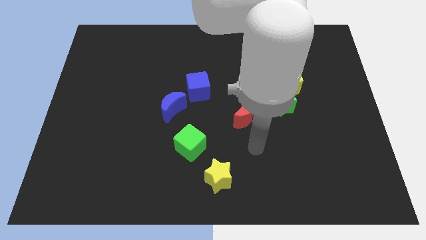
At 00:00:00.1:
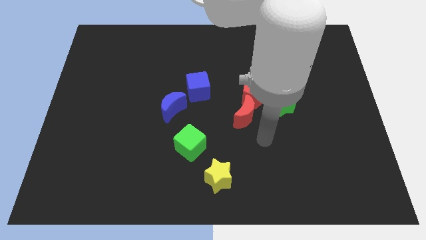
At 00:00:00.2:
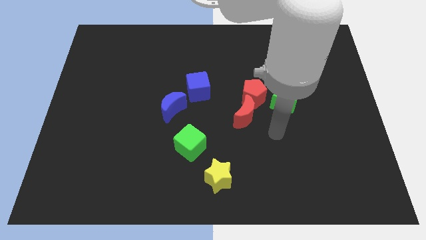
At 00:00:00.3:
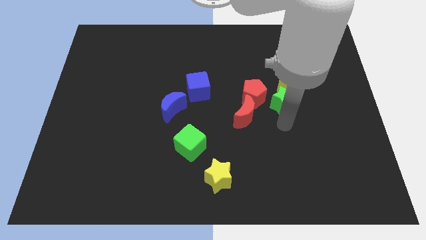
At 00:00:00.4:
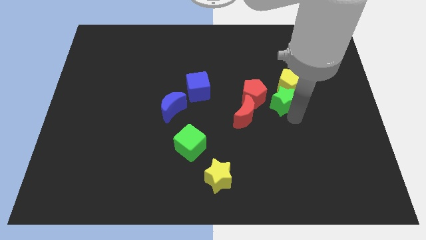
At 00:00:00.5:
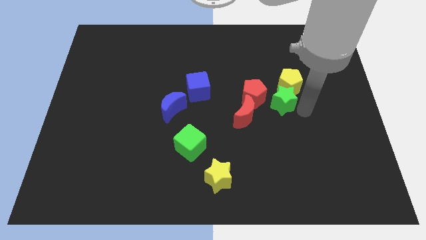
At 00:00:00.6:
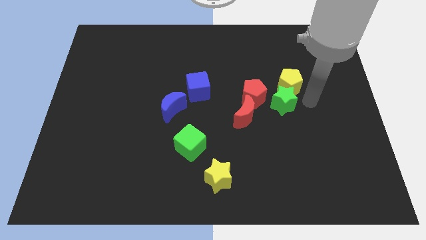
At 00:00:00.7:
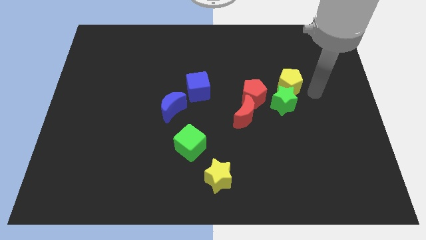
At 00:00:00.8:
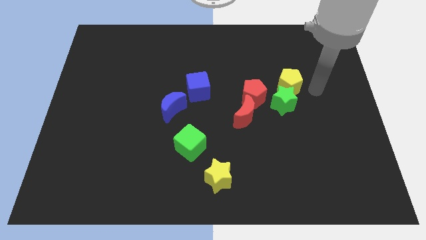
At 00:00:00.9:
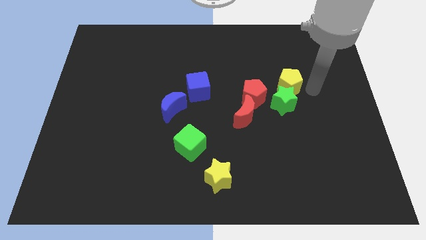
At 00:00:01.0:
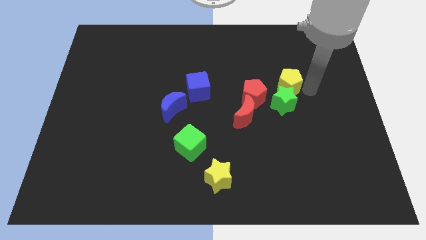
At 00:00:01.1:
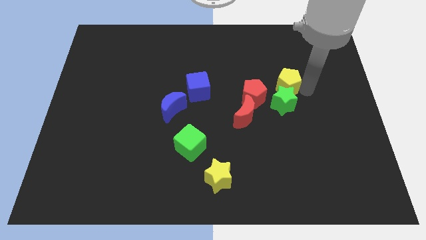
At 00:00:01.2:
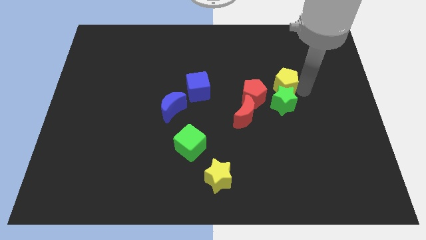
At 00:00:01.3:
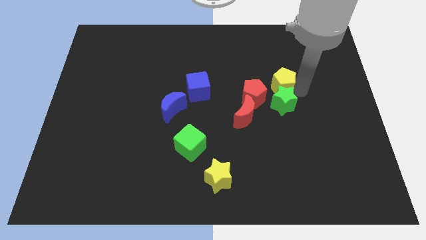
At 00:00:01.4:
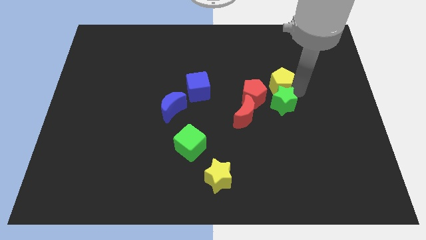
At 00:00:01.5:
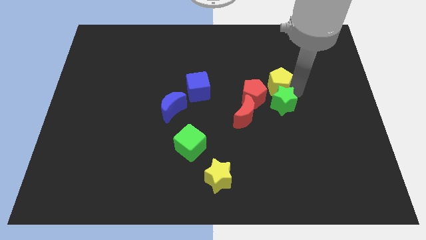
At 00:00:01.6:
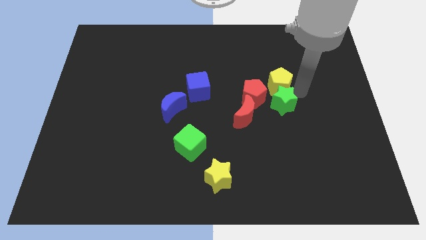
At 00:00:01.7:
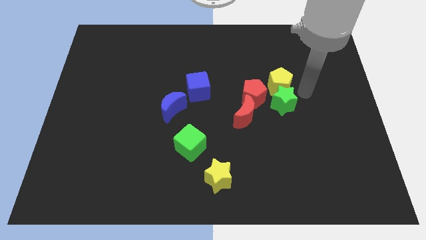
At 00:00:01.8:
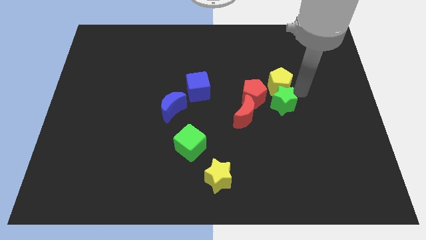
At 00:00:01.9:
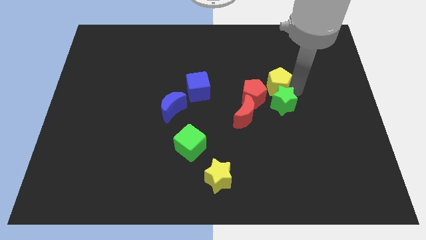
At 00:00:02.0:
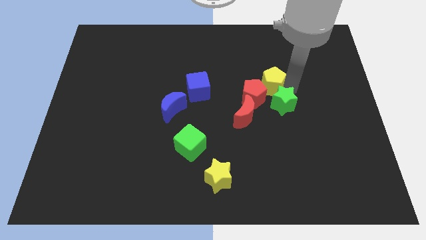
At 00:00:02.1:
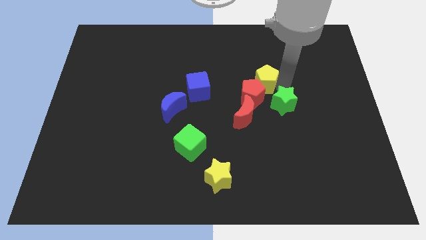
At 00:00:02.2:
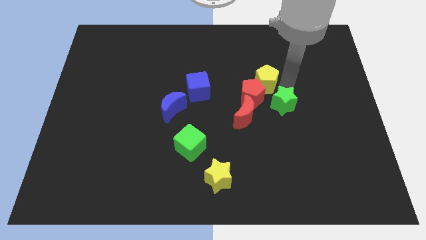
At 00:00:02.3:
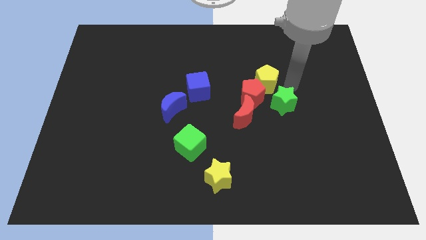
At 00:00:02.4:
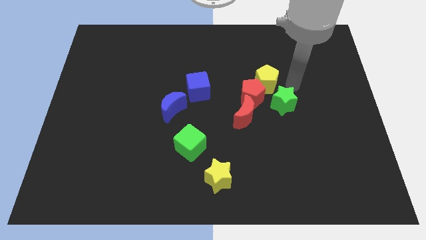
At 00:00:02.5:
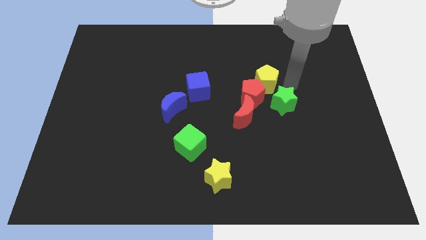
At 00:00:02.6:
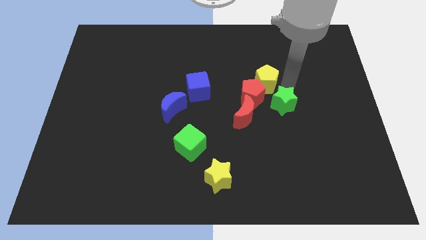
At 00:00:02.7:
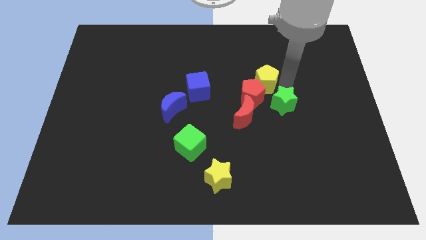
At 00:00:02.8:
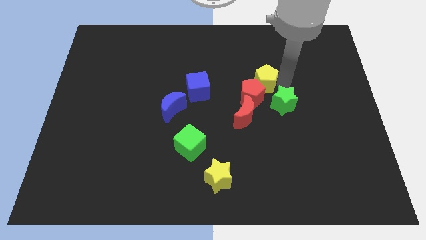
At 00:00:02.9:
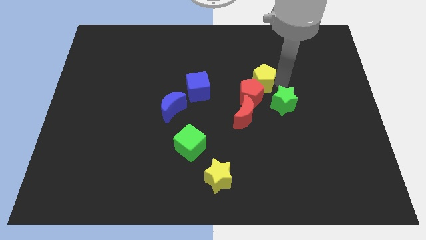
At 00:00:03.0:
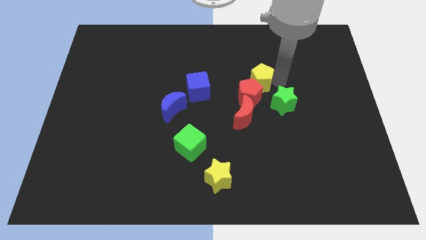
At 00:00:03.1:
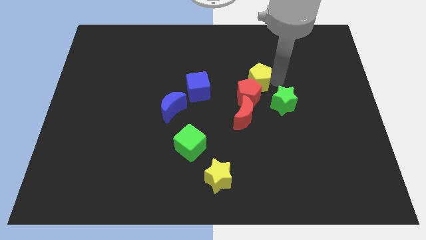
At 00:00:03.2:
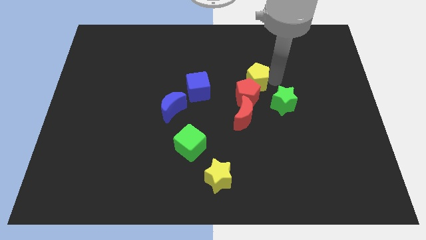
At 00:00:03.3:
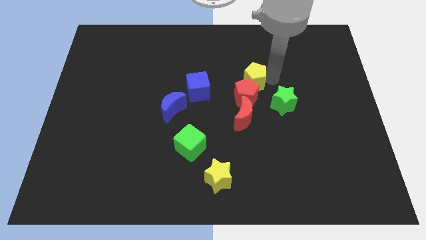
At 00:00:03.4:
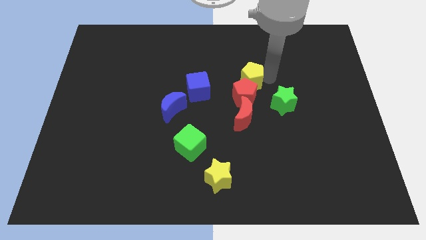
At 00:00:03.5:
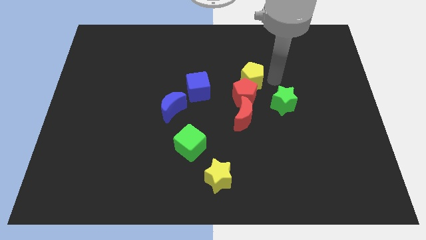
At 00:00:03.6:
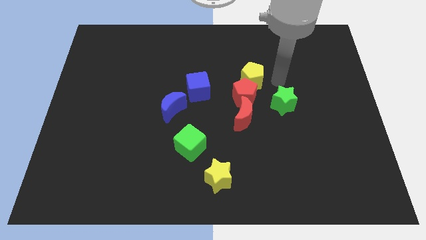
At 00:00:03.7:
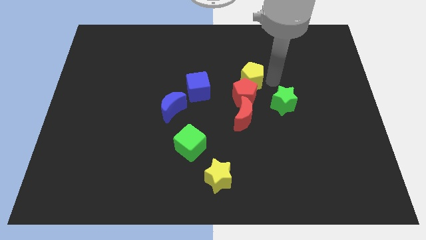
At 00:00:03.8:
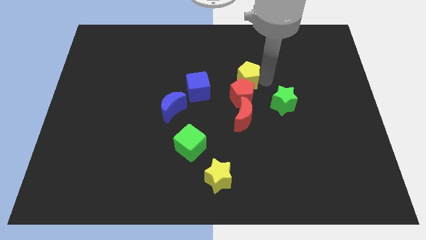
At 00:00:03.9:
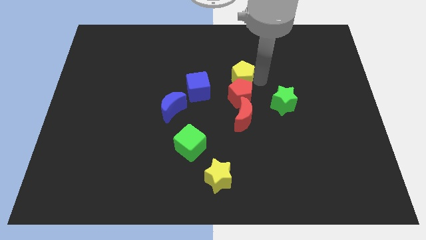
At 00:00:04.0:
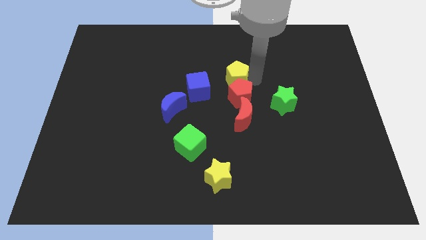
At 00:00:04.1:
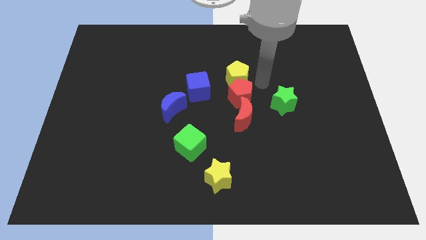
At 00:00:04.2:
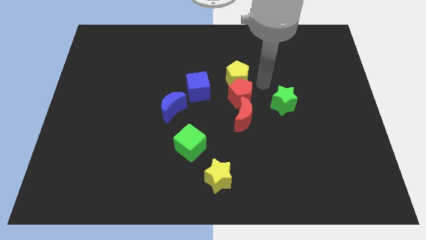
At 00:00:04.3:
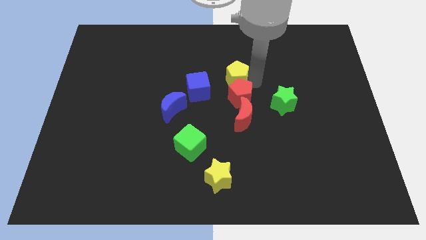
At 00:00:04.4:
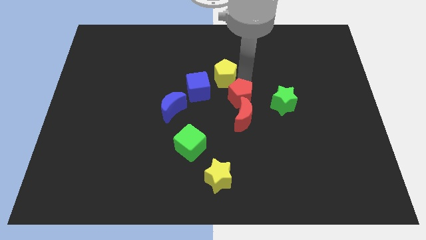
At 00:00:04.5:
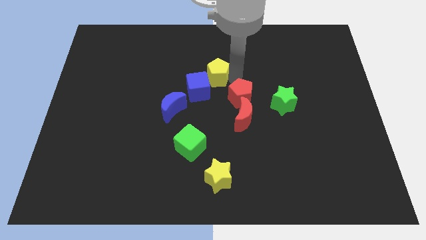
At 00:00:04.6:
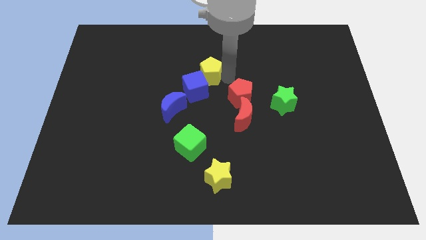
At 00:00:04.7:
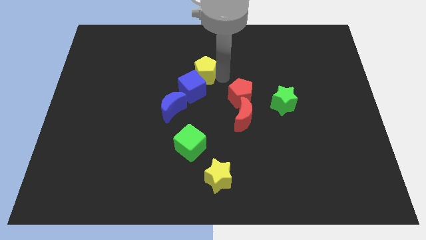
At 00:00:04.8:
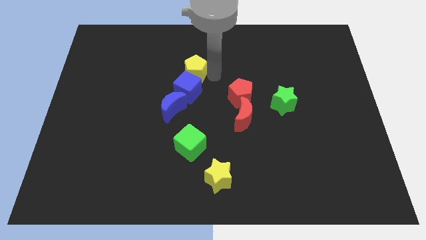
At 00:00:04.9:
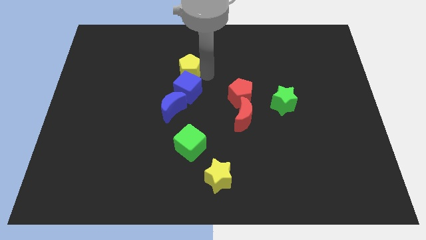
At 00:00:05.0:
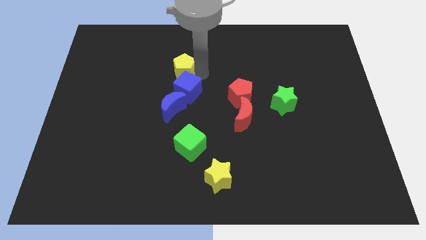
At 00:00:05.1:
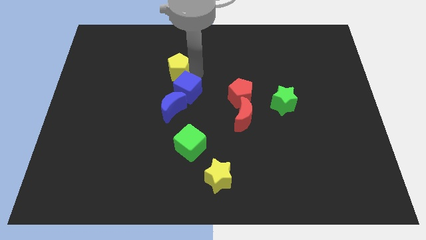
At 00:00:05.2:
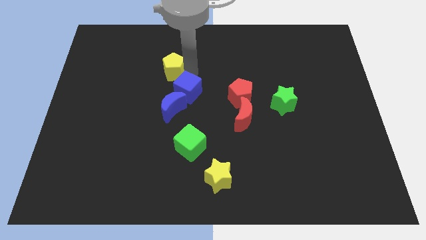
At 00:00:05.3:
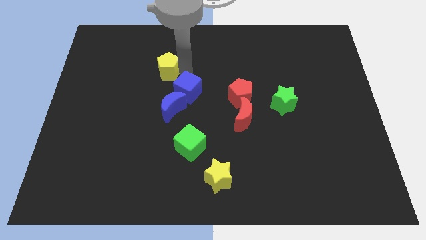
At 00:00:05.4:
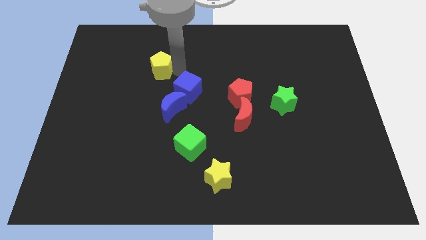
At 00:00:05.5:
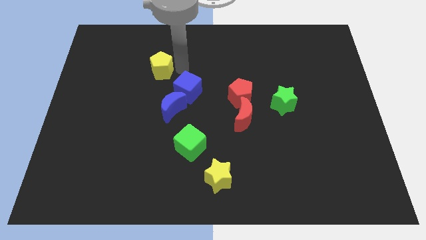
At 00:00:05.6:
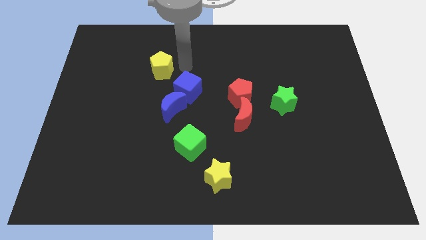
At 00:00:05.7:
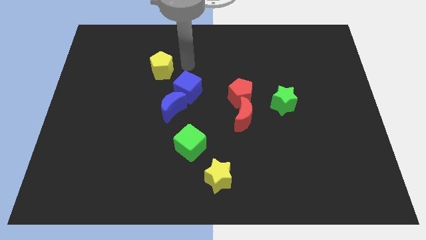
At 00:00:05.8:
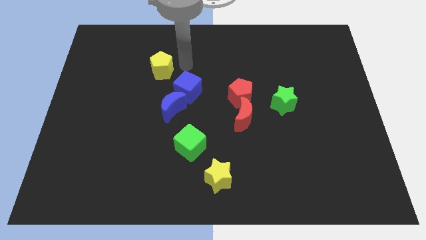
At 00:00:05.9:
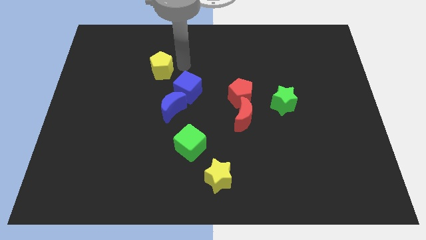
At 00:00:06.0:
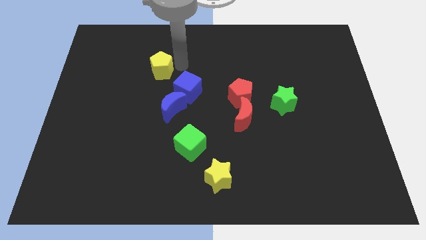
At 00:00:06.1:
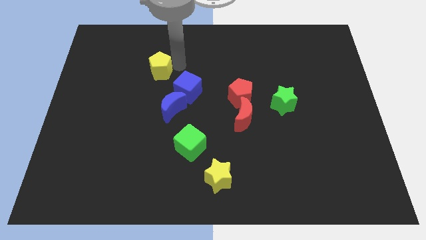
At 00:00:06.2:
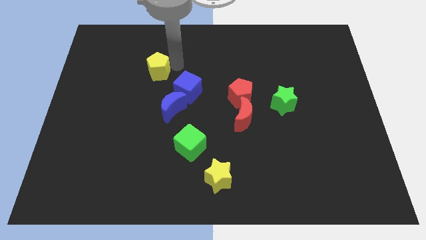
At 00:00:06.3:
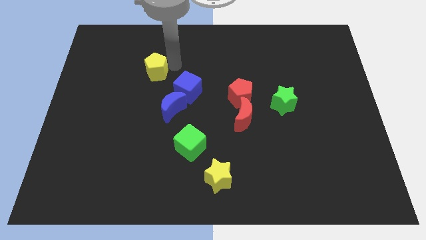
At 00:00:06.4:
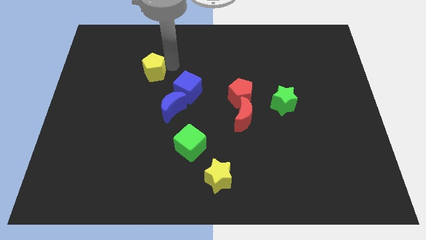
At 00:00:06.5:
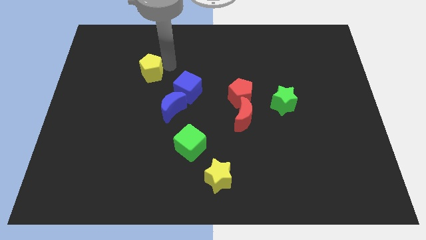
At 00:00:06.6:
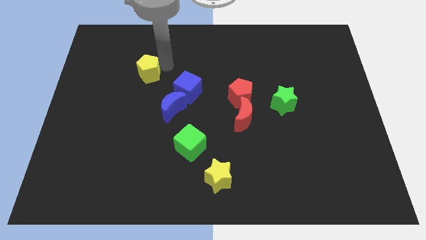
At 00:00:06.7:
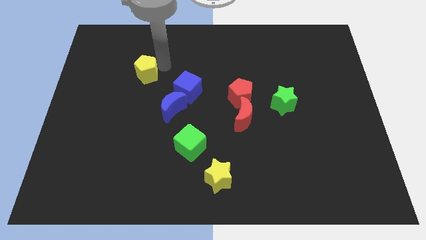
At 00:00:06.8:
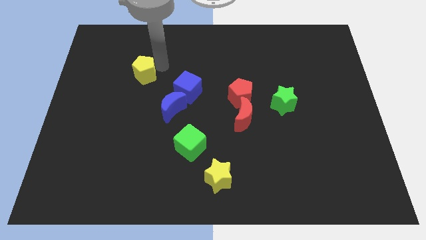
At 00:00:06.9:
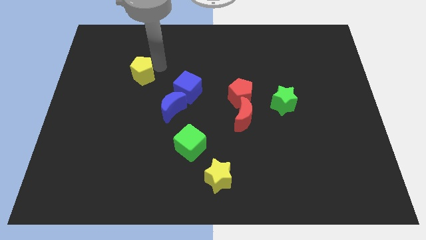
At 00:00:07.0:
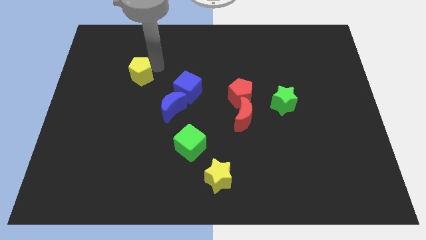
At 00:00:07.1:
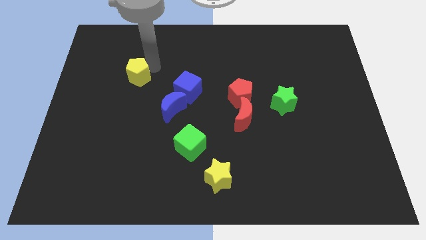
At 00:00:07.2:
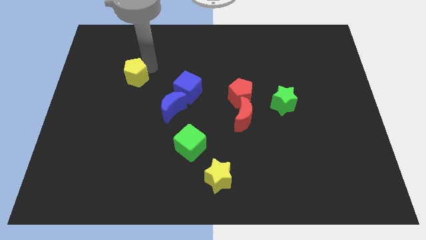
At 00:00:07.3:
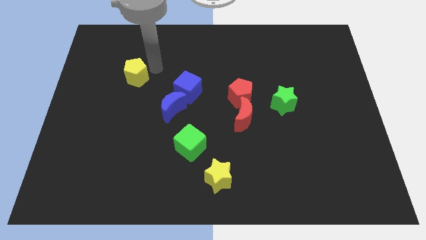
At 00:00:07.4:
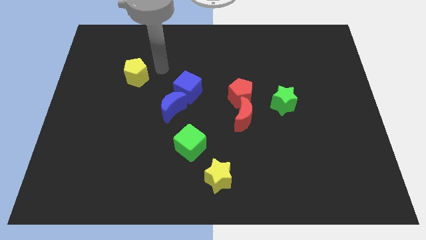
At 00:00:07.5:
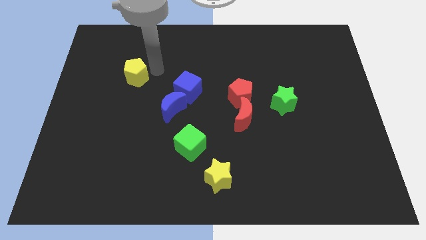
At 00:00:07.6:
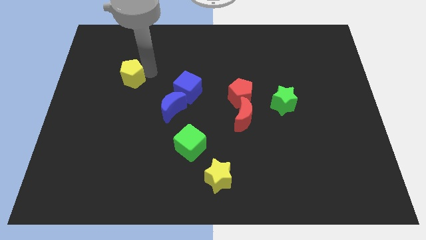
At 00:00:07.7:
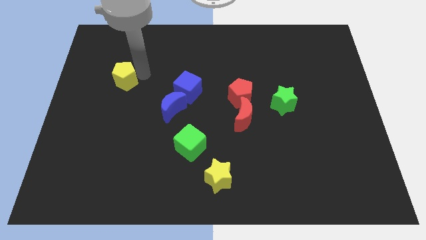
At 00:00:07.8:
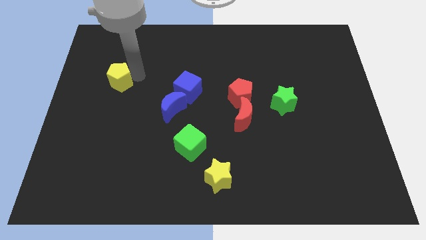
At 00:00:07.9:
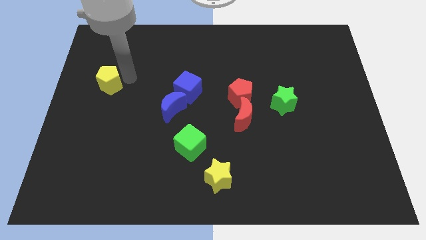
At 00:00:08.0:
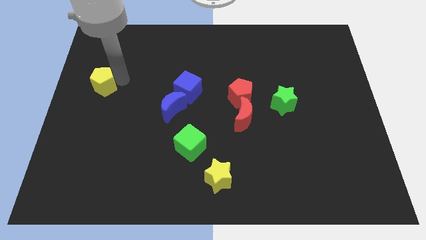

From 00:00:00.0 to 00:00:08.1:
move the yellow pentagon to the left side of the board
